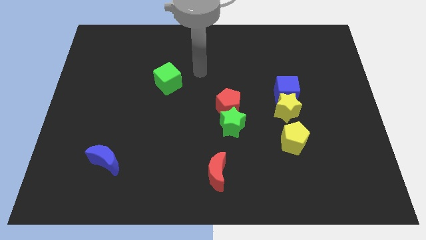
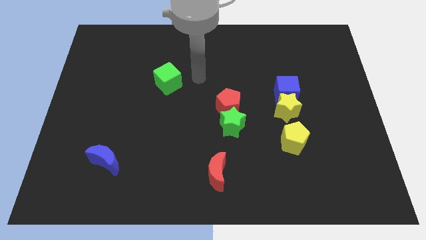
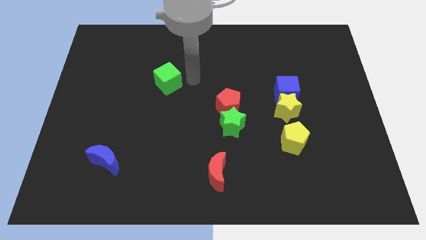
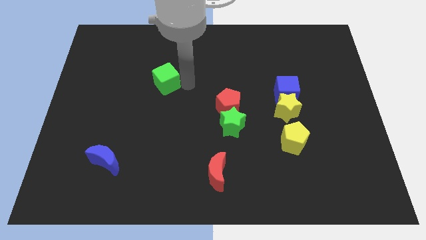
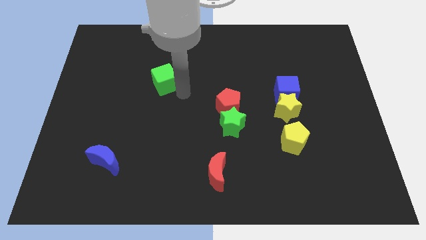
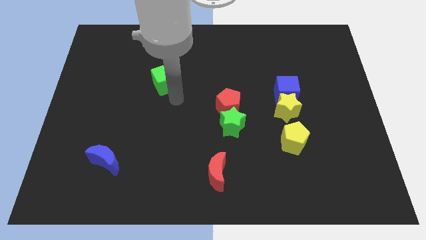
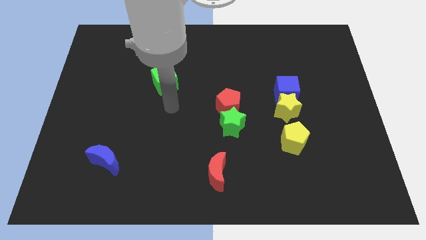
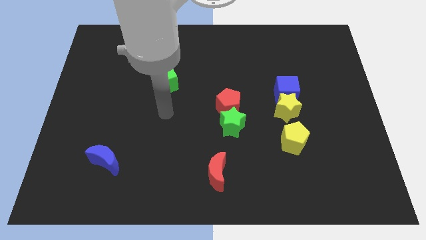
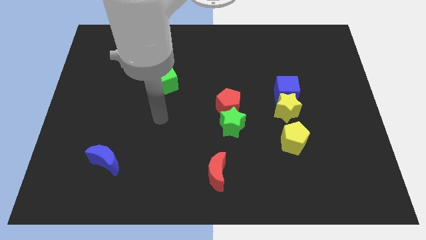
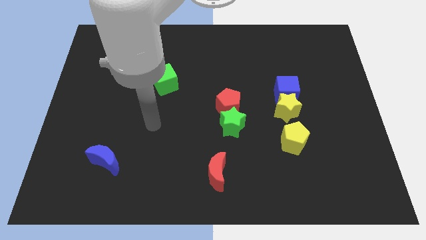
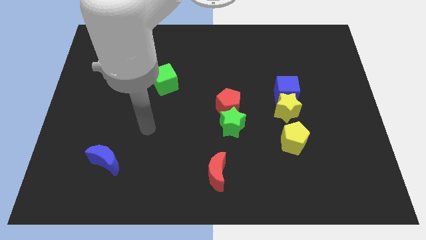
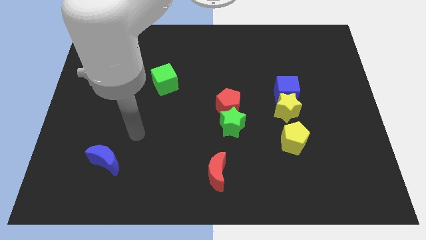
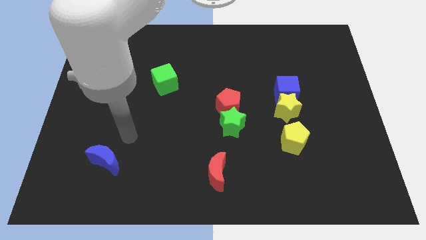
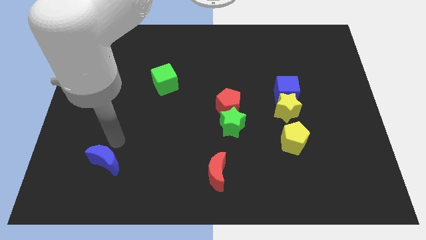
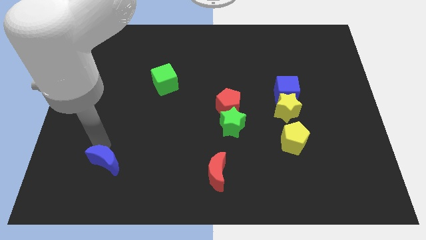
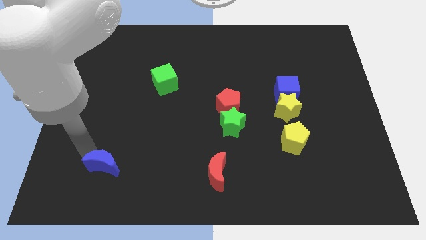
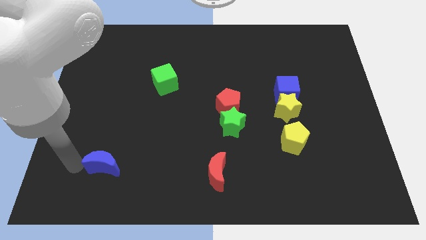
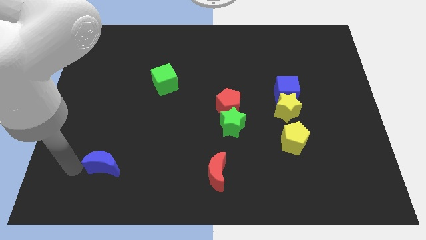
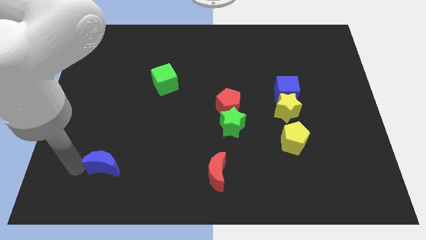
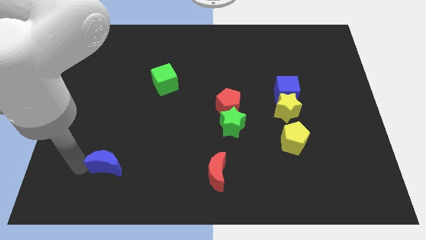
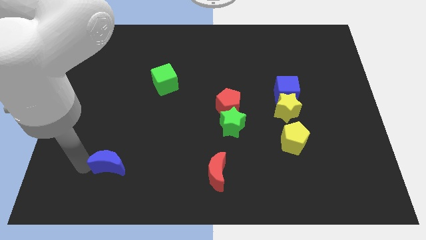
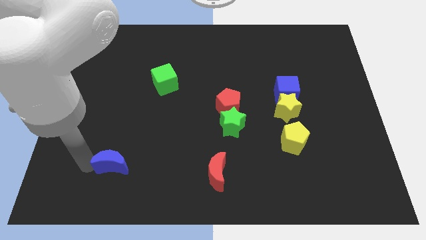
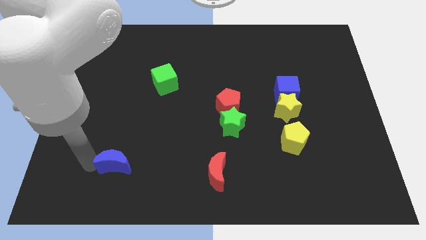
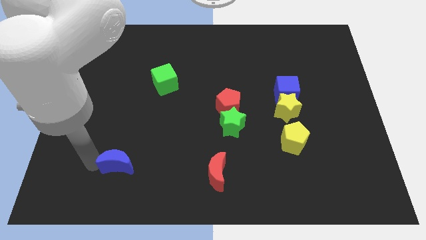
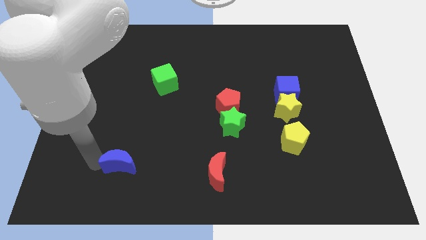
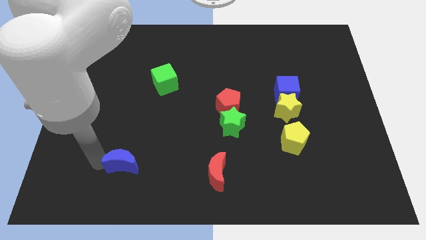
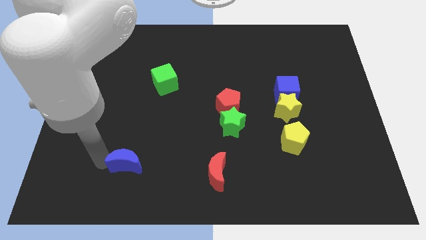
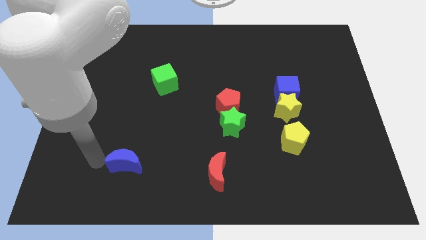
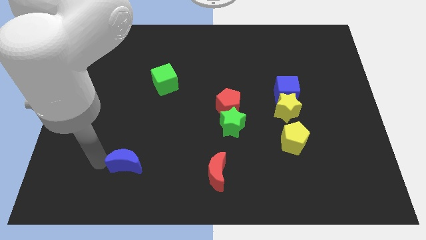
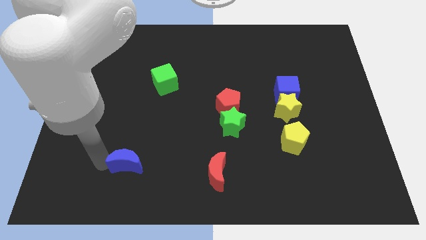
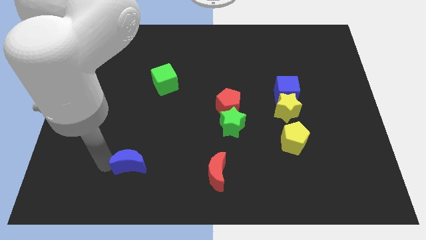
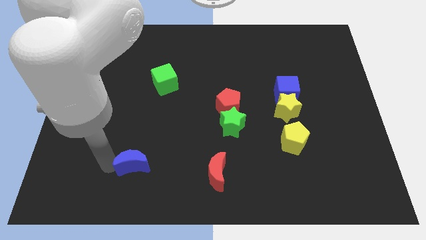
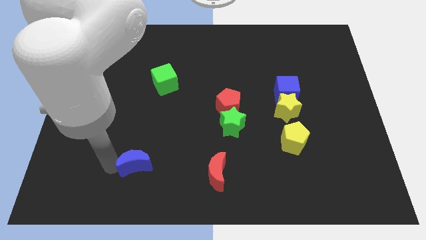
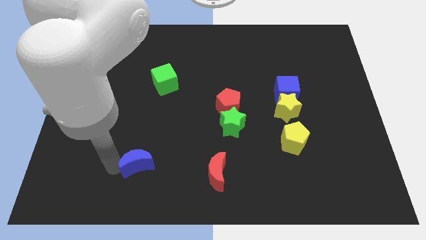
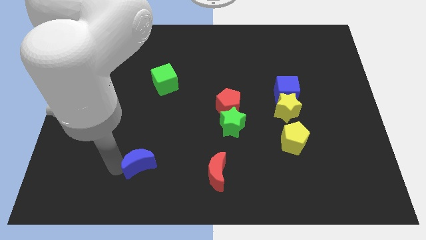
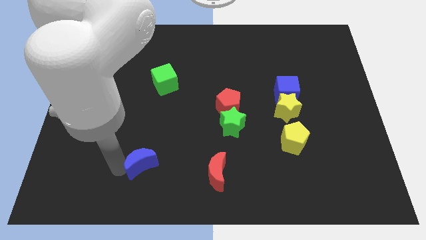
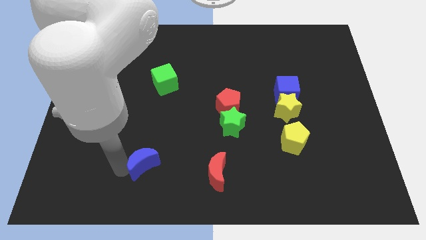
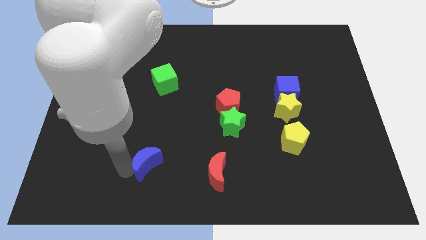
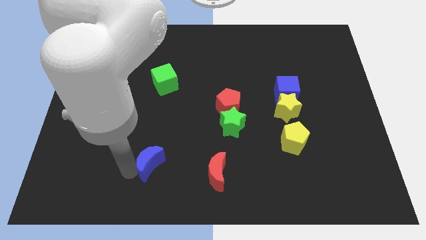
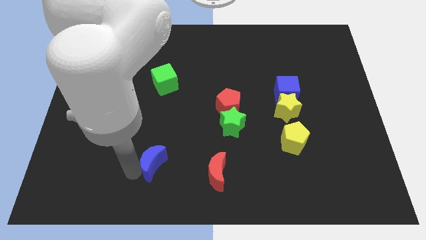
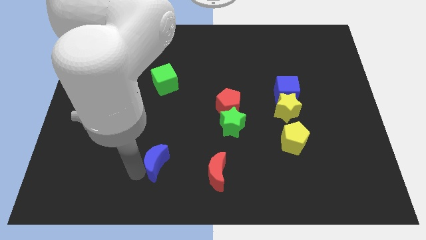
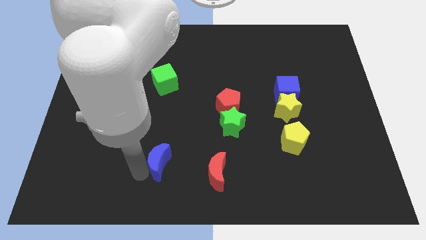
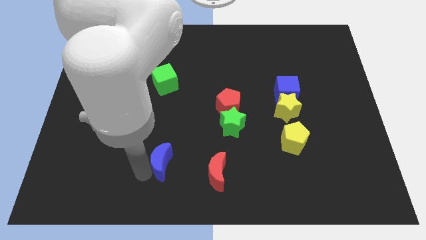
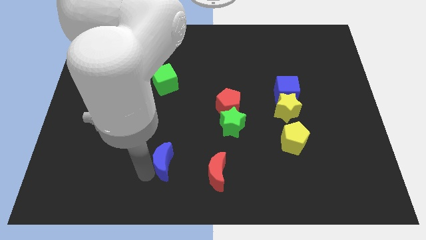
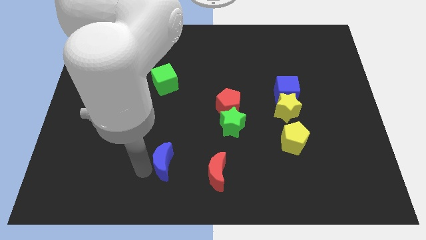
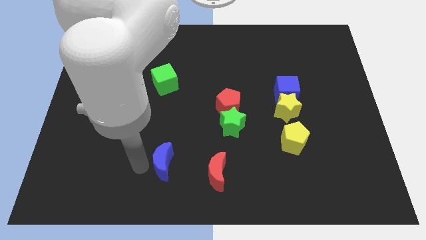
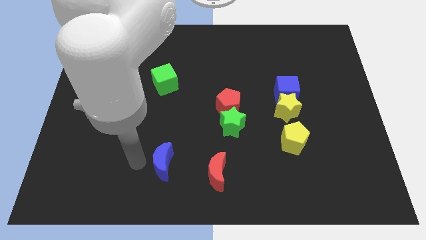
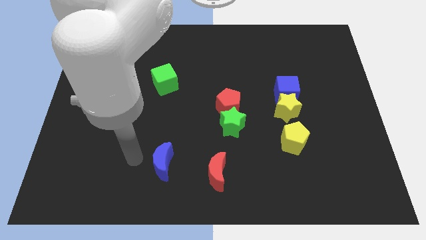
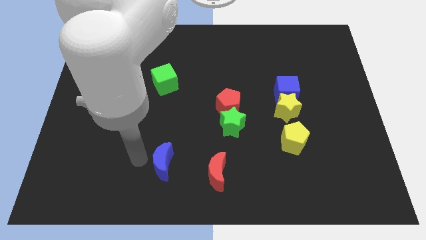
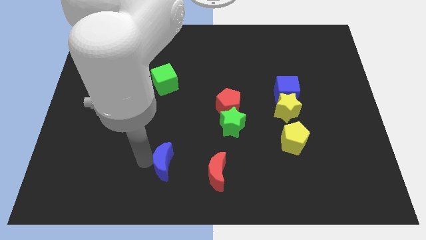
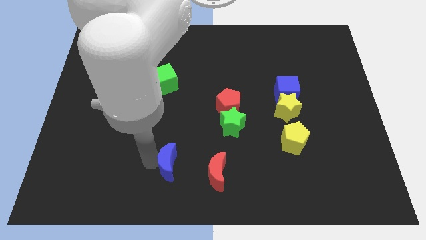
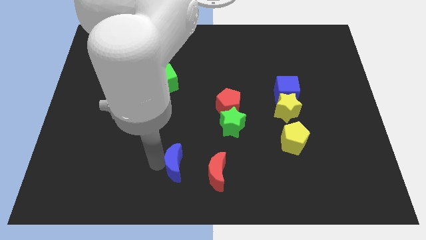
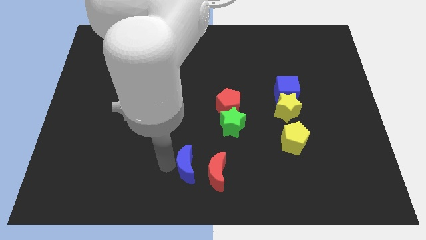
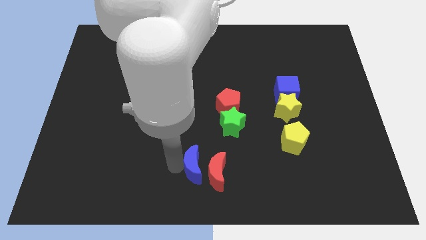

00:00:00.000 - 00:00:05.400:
put the blue moon close to the red moon

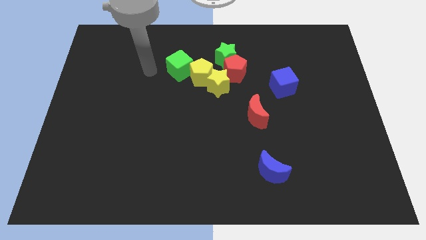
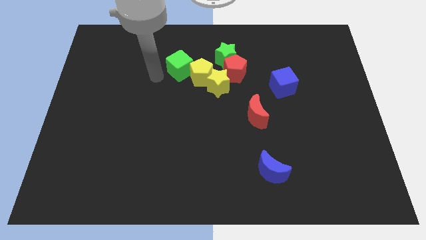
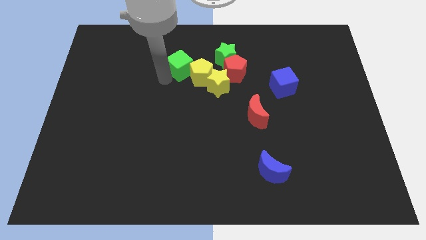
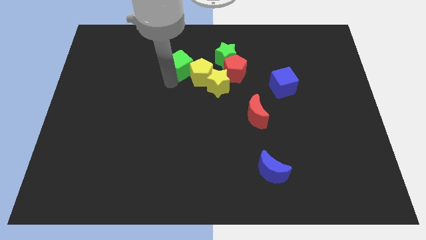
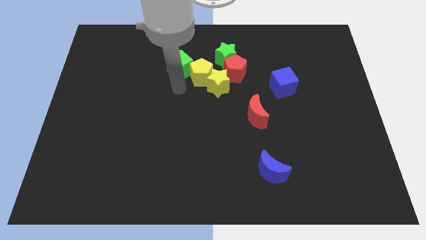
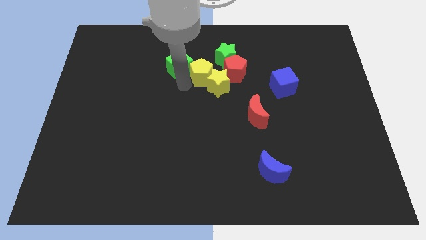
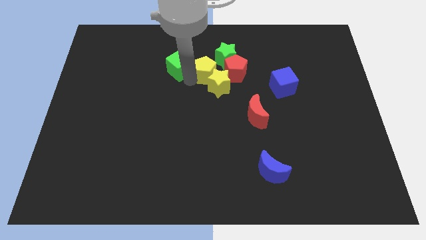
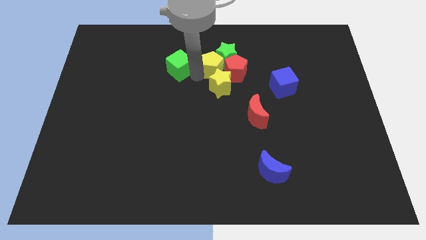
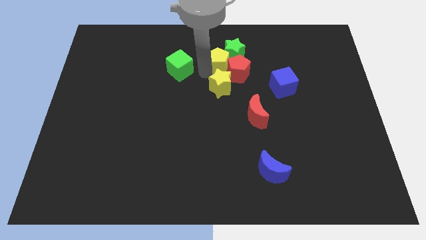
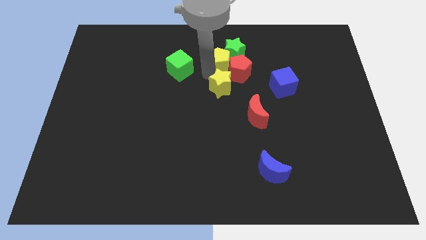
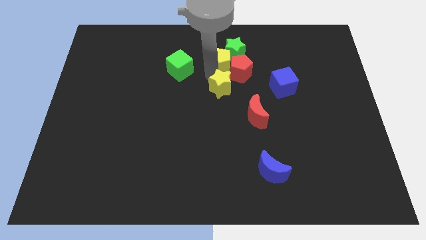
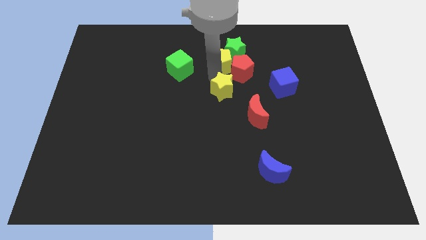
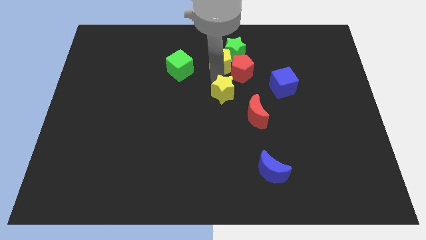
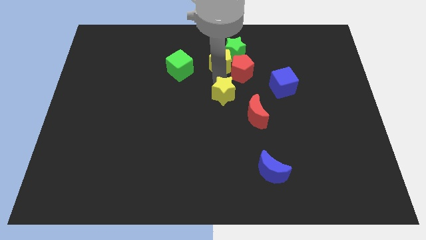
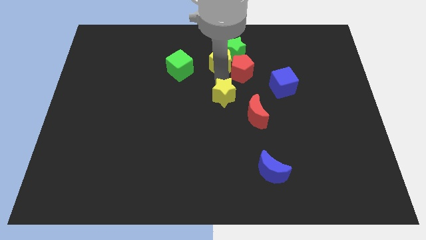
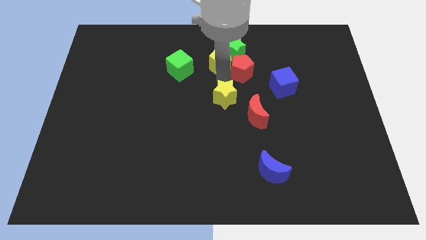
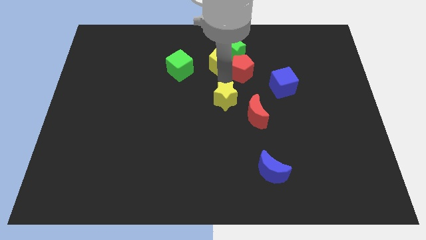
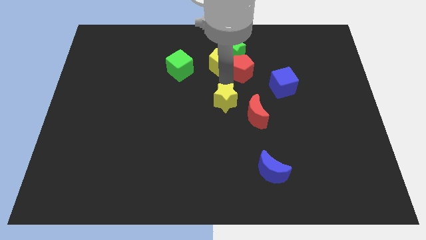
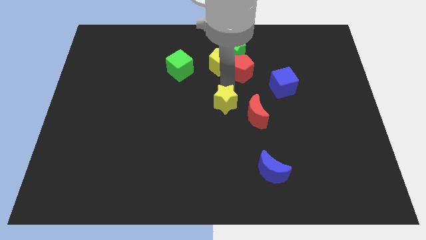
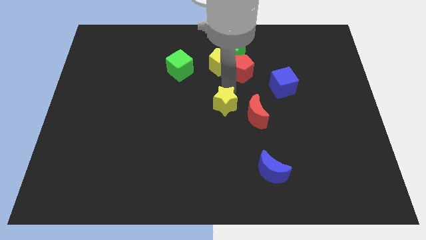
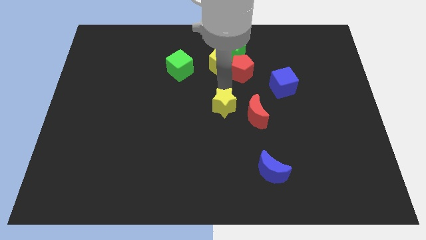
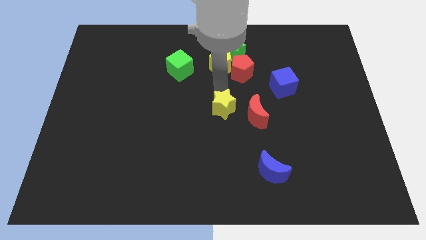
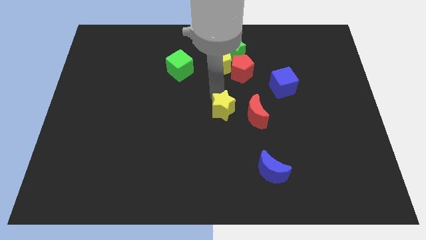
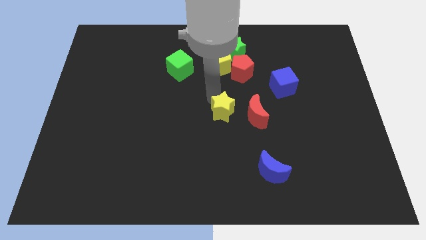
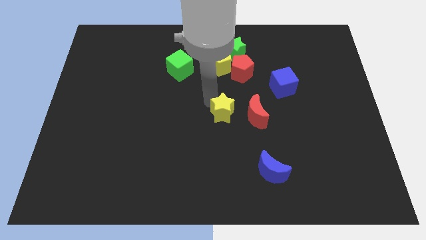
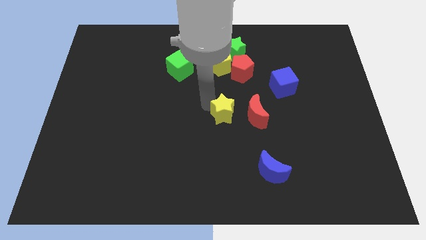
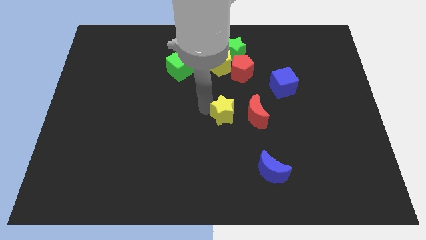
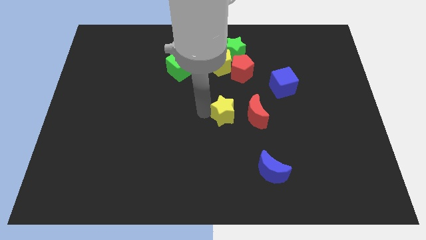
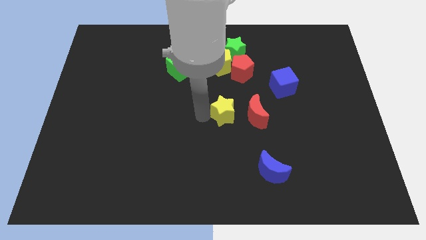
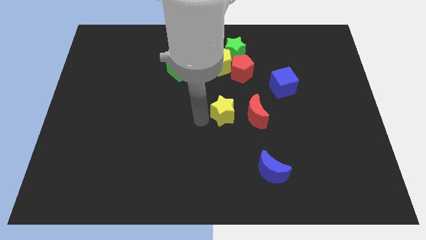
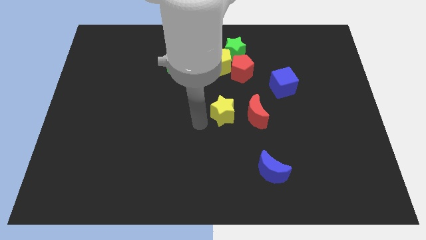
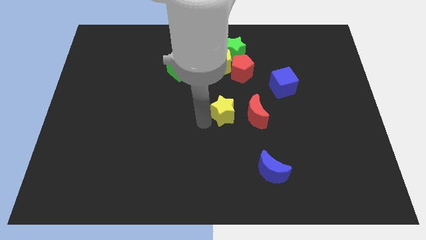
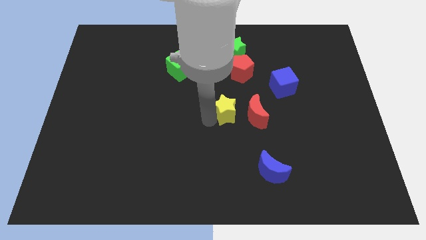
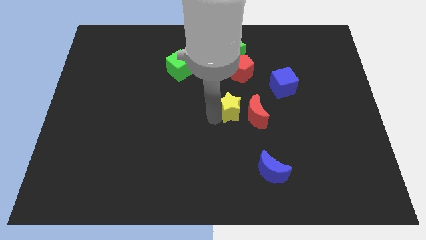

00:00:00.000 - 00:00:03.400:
push the yellow star to the red moon
